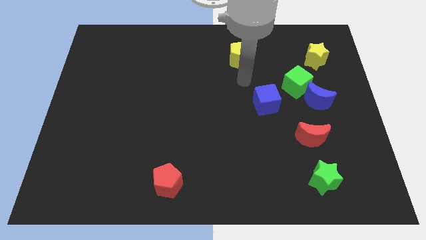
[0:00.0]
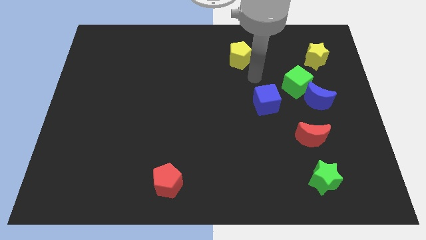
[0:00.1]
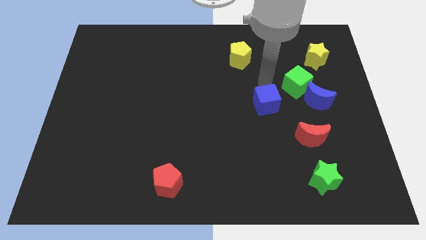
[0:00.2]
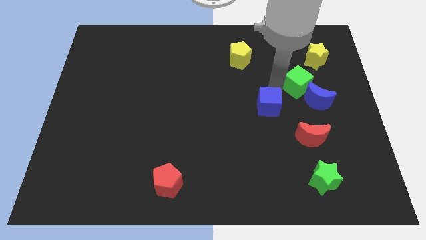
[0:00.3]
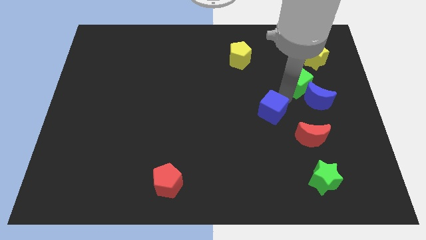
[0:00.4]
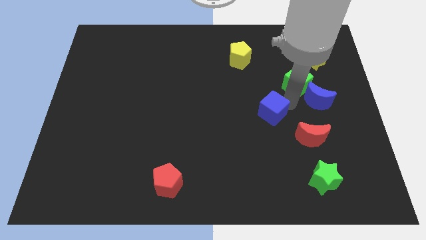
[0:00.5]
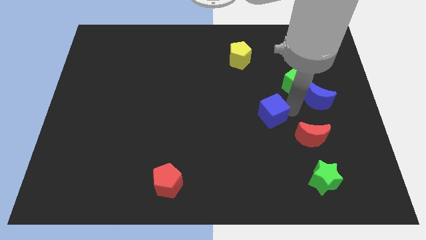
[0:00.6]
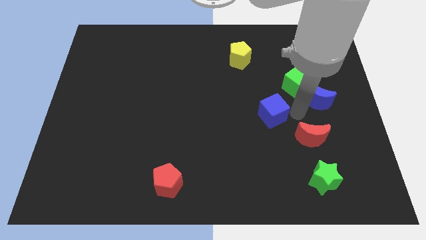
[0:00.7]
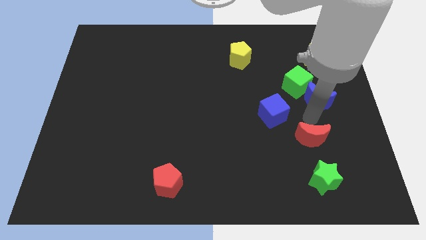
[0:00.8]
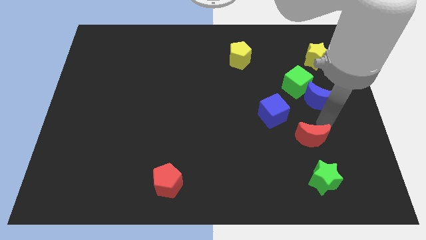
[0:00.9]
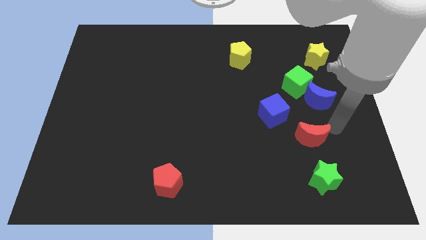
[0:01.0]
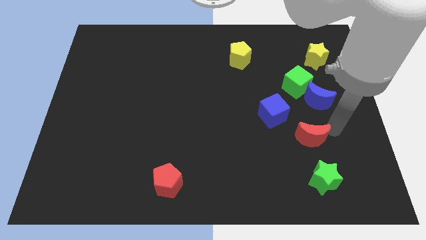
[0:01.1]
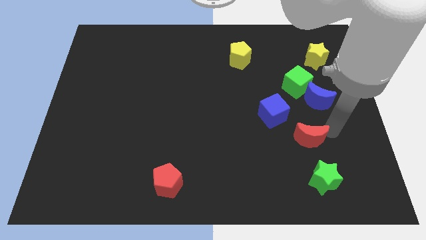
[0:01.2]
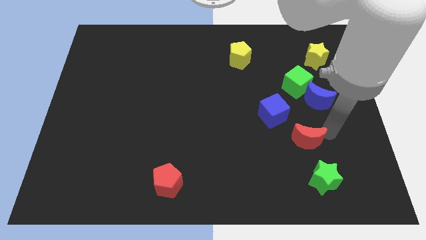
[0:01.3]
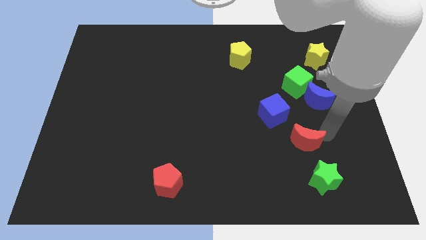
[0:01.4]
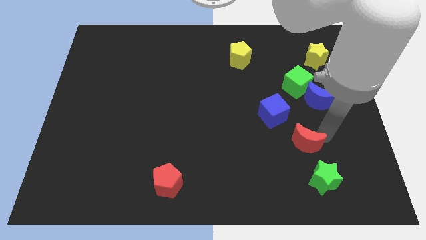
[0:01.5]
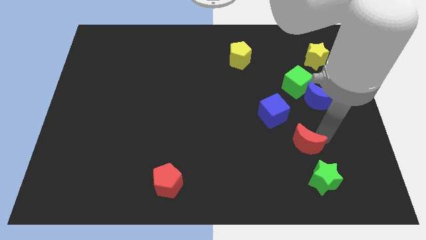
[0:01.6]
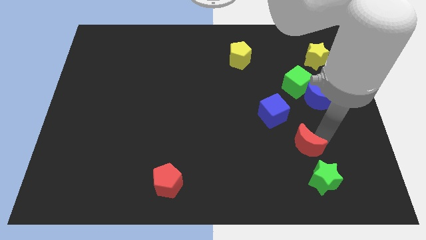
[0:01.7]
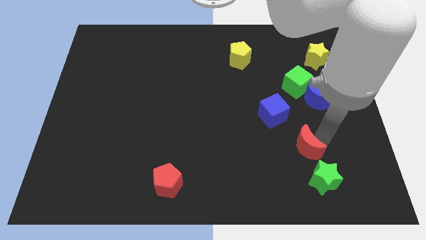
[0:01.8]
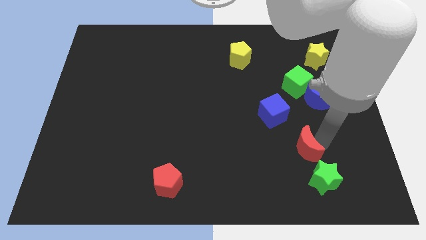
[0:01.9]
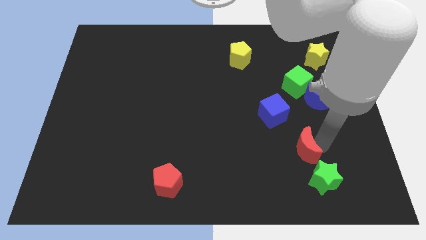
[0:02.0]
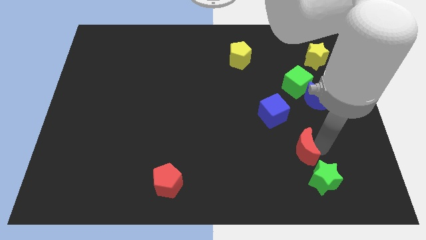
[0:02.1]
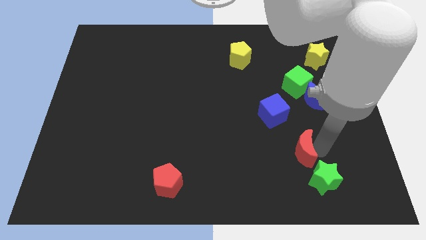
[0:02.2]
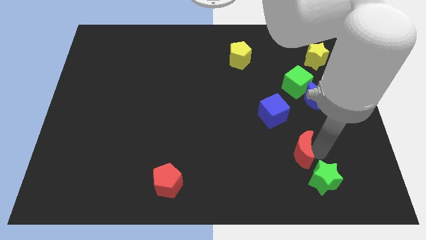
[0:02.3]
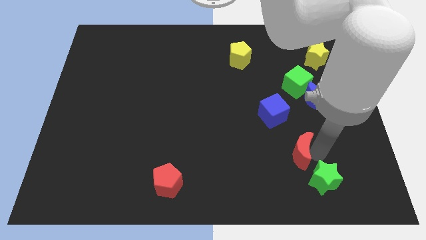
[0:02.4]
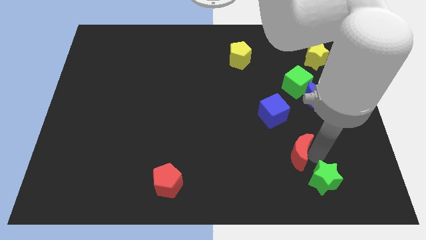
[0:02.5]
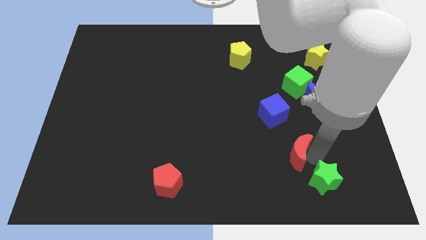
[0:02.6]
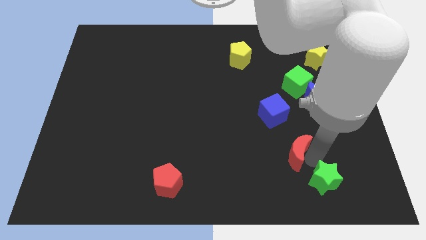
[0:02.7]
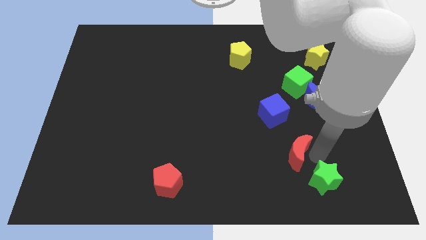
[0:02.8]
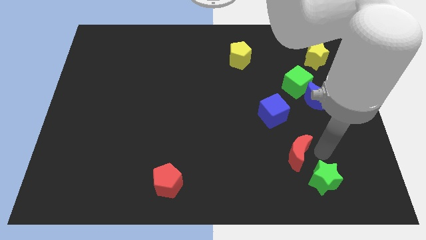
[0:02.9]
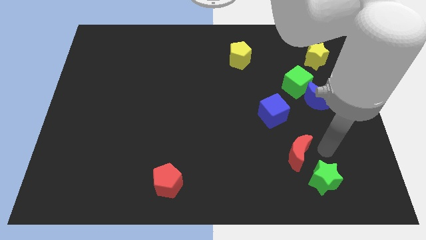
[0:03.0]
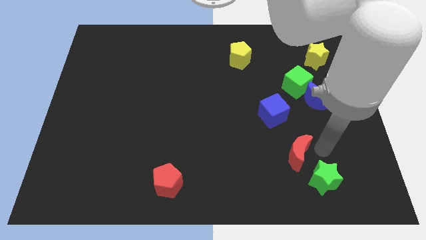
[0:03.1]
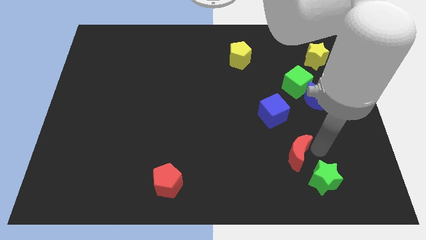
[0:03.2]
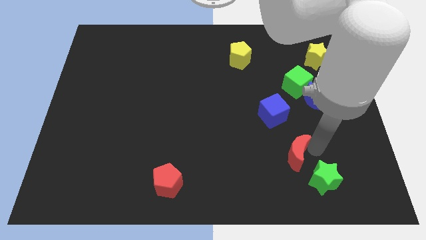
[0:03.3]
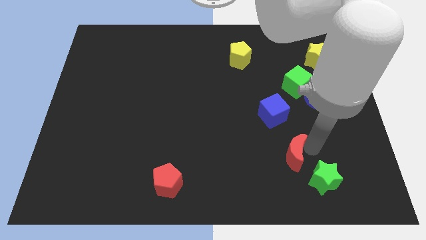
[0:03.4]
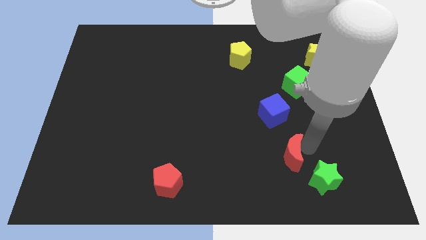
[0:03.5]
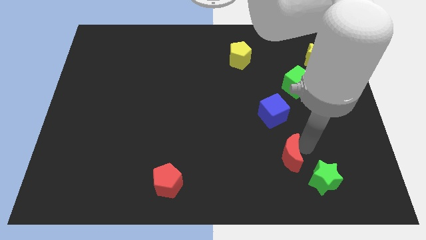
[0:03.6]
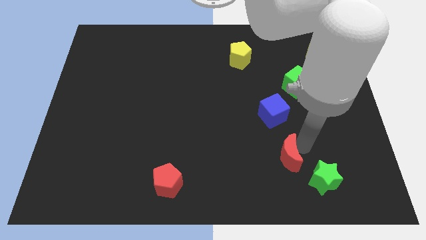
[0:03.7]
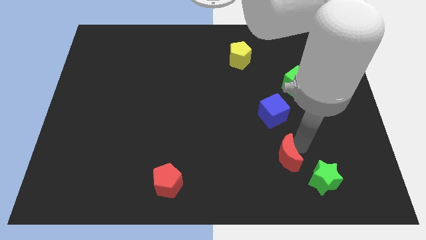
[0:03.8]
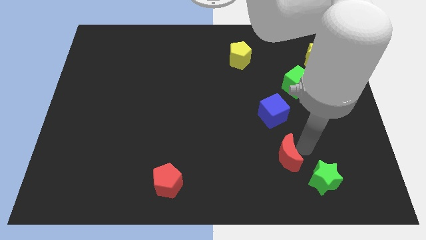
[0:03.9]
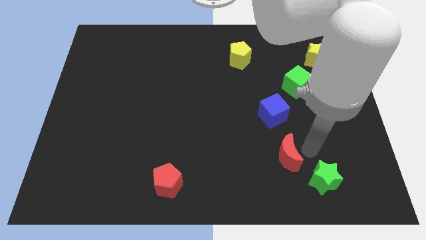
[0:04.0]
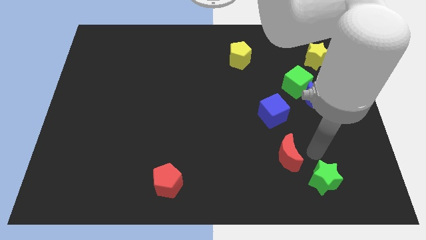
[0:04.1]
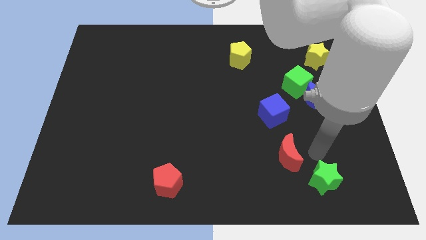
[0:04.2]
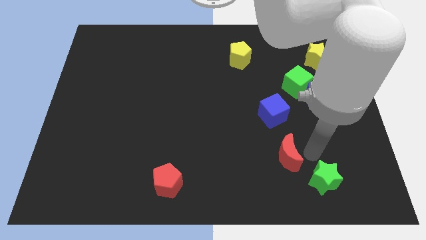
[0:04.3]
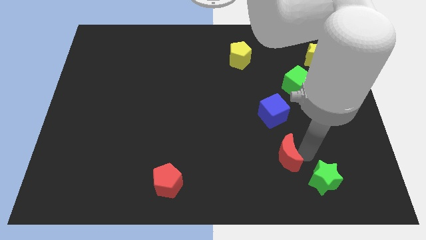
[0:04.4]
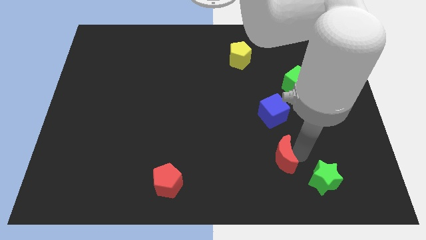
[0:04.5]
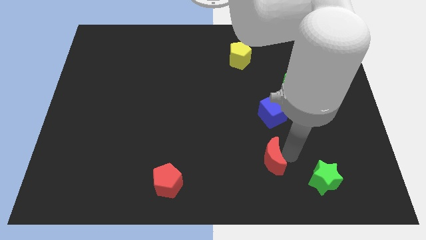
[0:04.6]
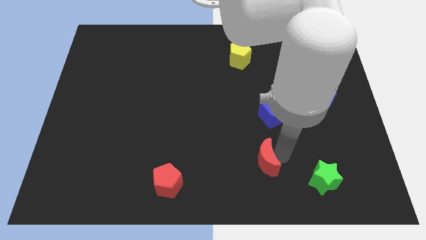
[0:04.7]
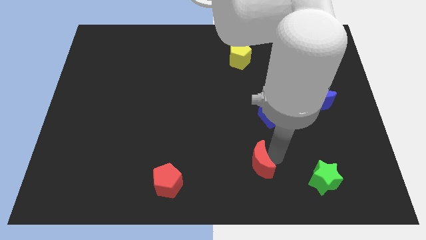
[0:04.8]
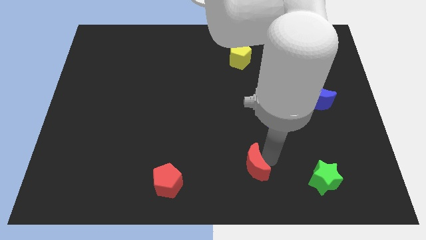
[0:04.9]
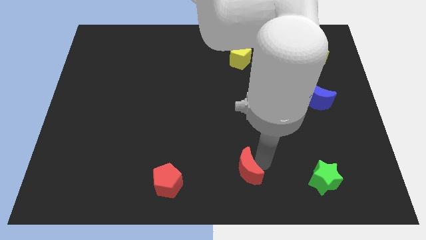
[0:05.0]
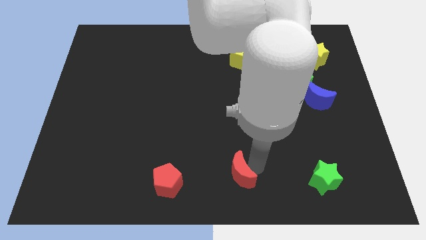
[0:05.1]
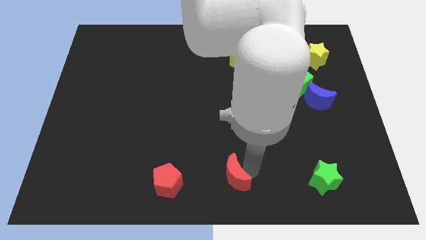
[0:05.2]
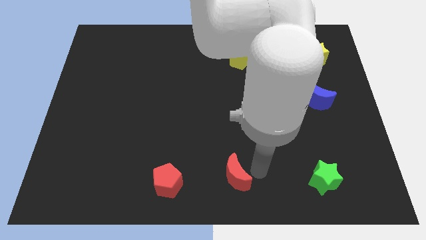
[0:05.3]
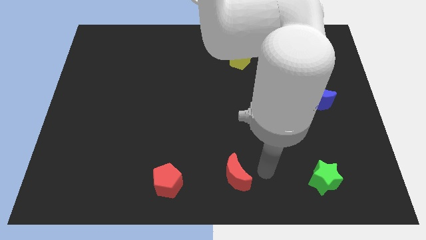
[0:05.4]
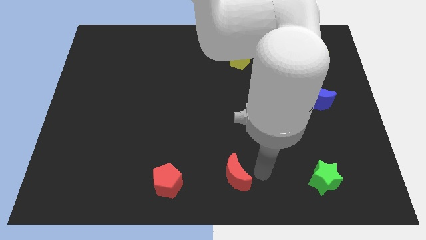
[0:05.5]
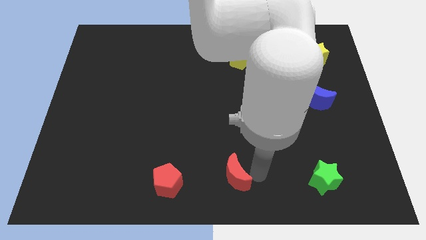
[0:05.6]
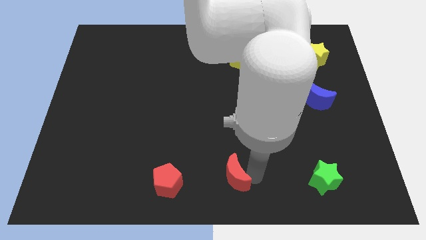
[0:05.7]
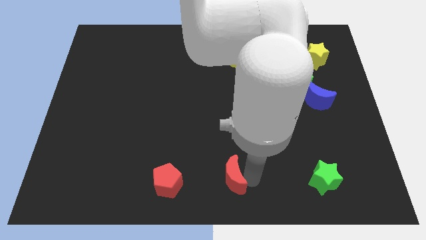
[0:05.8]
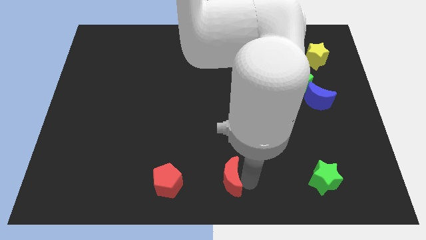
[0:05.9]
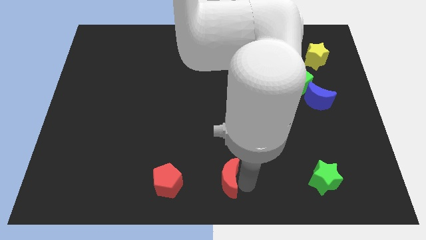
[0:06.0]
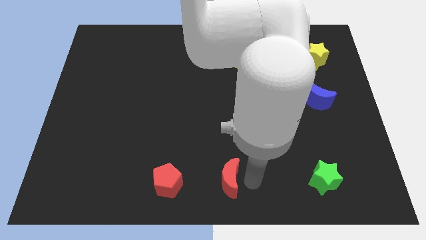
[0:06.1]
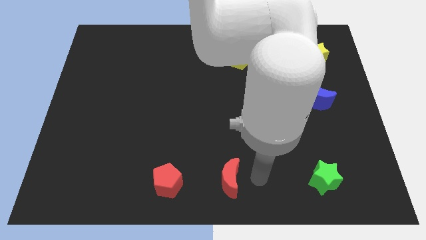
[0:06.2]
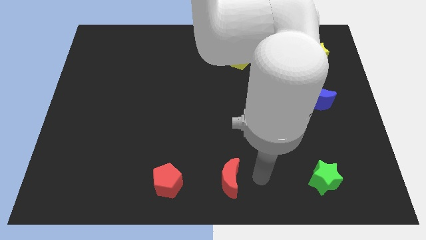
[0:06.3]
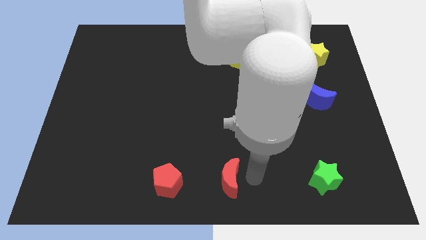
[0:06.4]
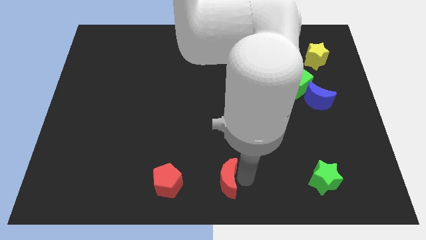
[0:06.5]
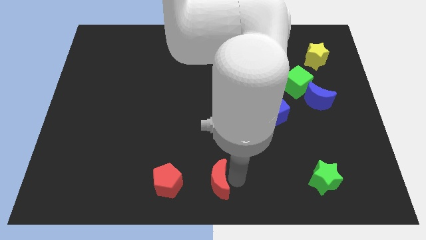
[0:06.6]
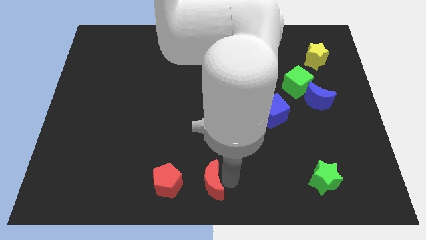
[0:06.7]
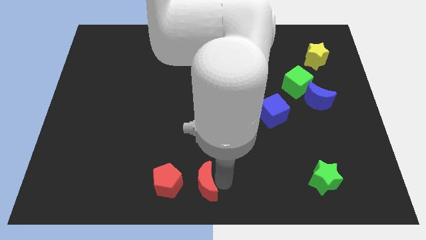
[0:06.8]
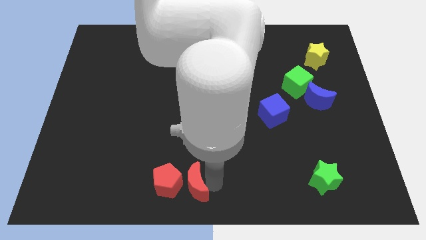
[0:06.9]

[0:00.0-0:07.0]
put the red moon towards the red pentagon
